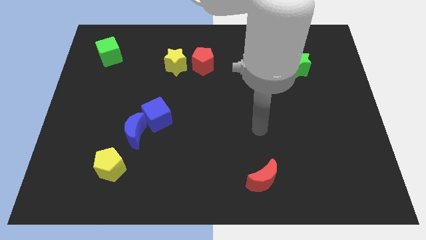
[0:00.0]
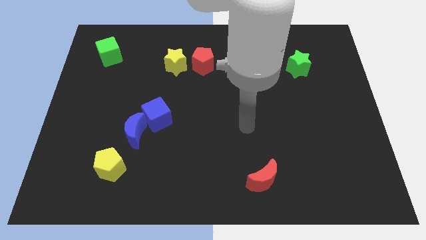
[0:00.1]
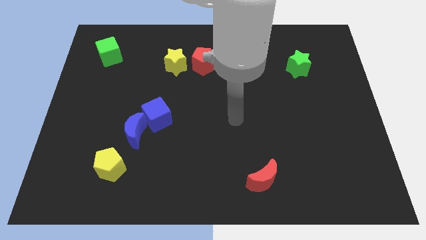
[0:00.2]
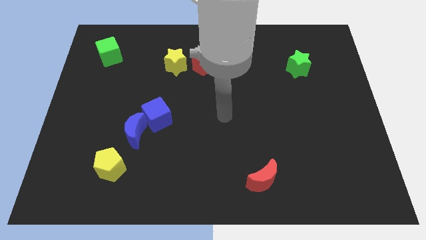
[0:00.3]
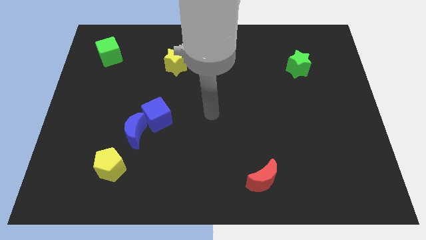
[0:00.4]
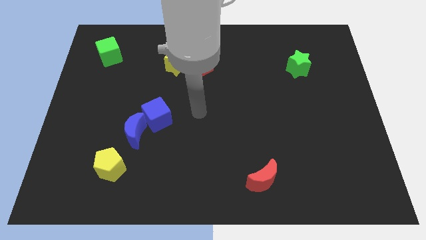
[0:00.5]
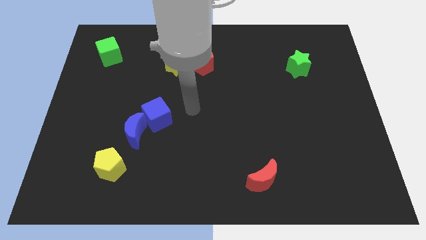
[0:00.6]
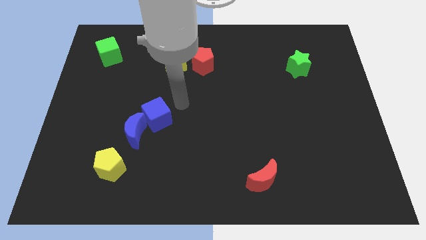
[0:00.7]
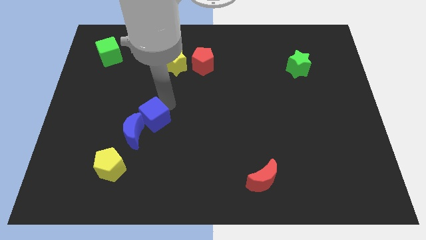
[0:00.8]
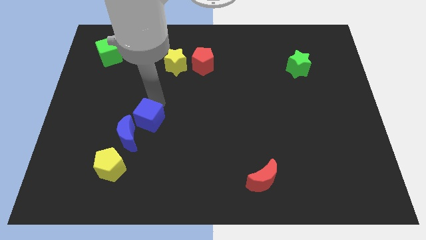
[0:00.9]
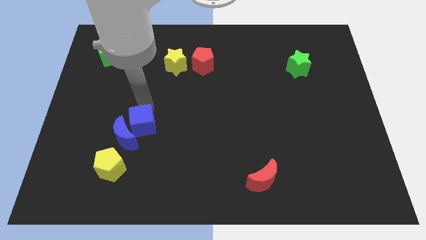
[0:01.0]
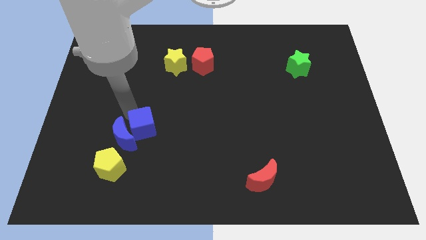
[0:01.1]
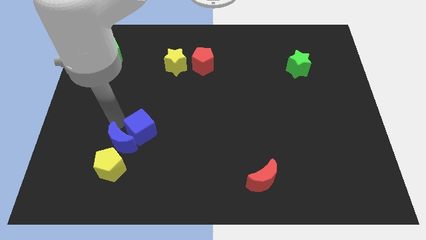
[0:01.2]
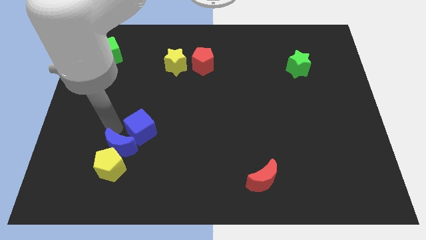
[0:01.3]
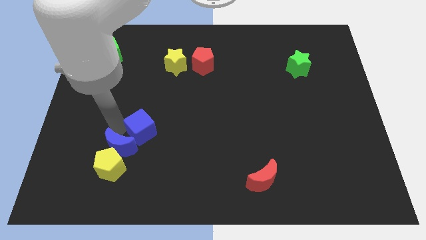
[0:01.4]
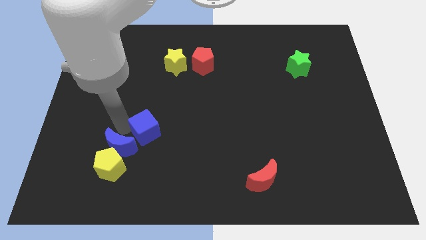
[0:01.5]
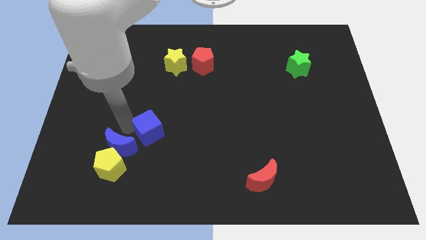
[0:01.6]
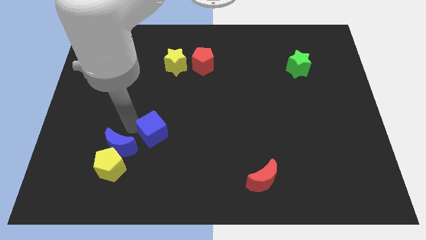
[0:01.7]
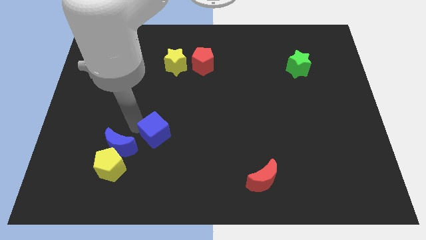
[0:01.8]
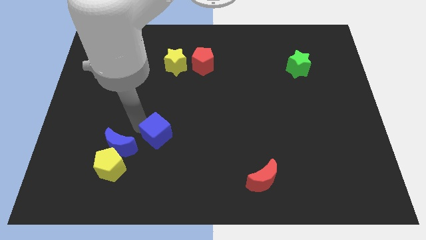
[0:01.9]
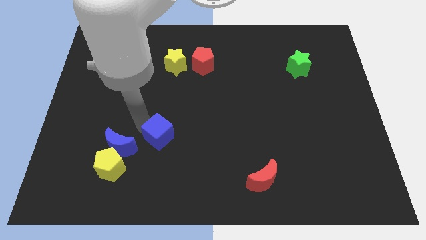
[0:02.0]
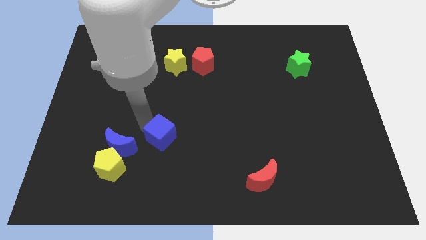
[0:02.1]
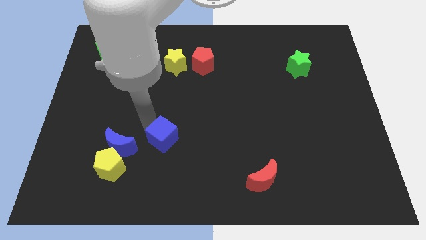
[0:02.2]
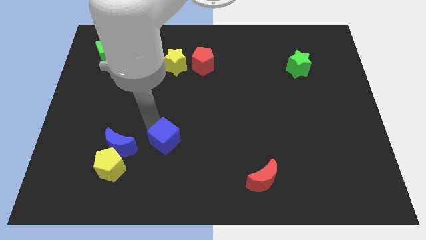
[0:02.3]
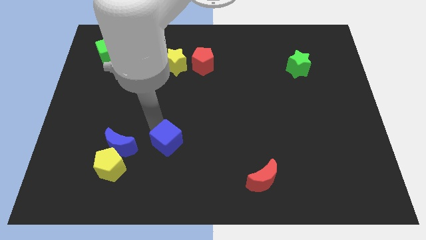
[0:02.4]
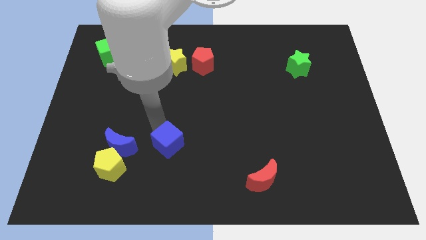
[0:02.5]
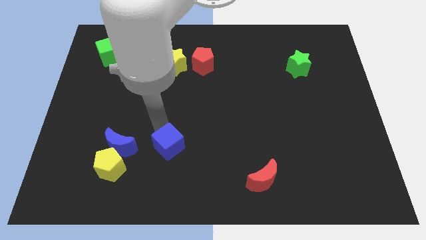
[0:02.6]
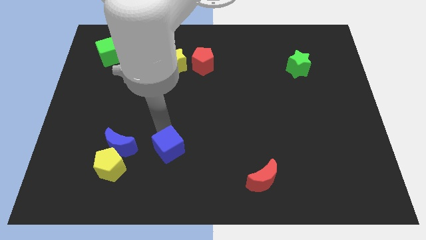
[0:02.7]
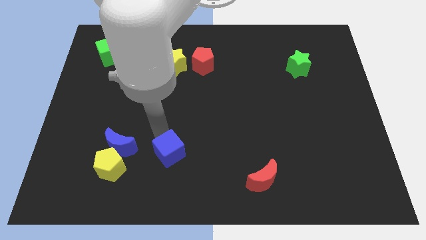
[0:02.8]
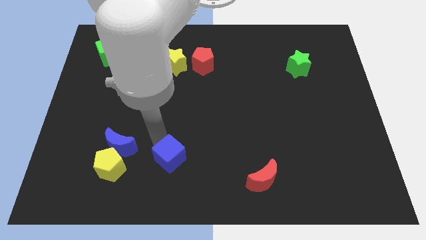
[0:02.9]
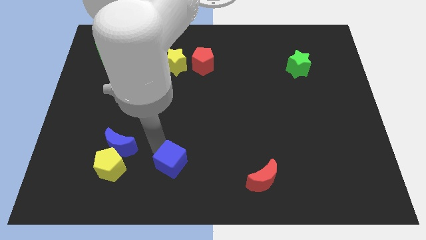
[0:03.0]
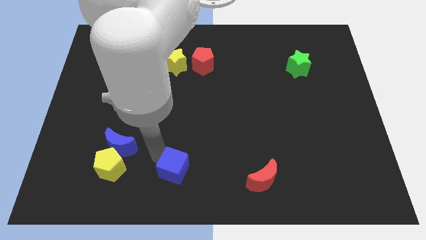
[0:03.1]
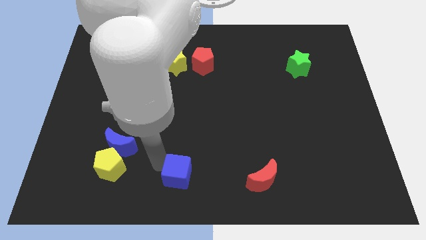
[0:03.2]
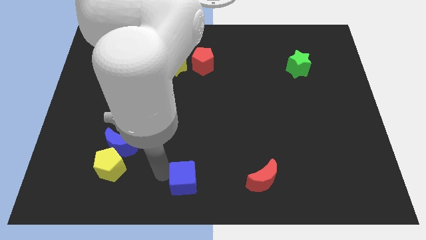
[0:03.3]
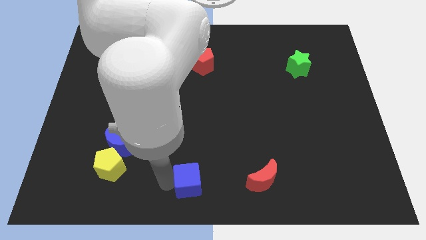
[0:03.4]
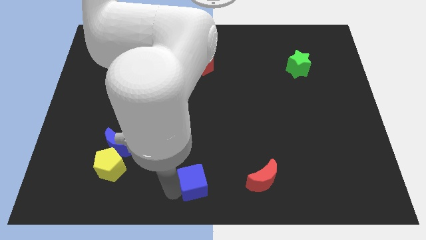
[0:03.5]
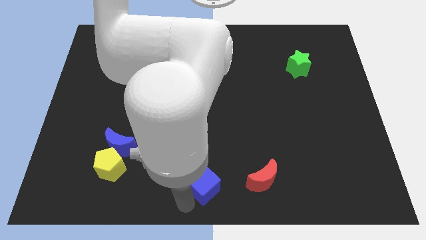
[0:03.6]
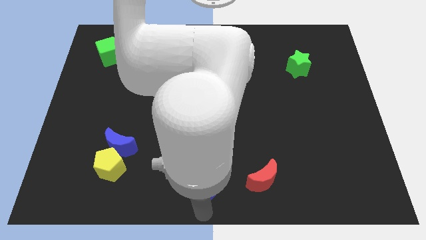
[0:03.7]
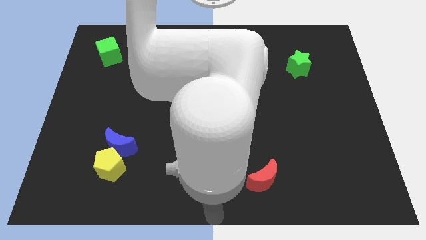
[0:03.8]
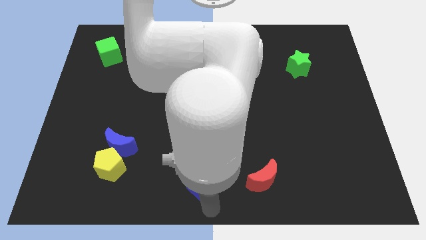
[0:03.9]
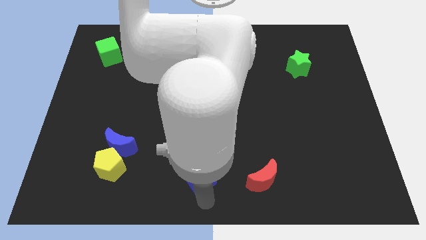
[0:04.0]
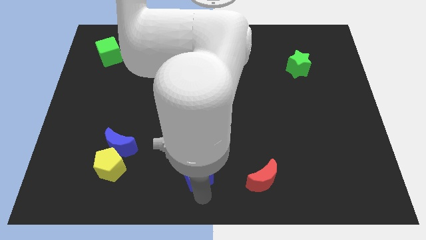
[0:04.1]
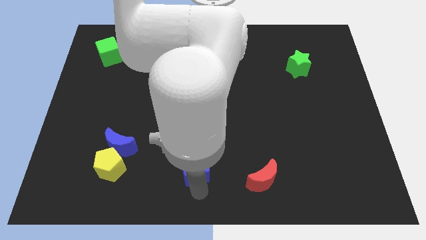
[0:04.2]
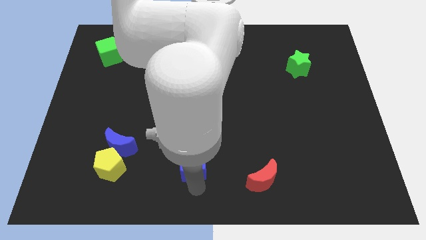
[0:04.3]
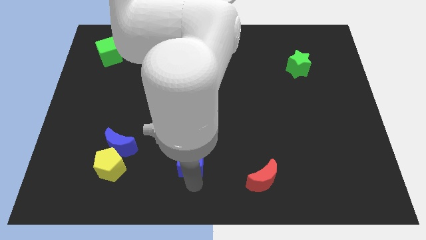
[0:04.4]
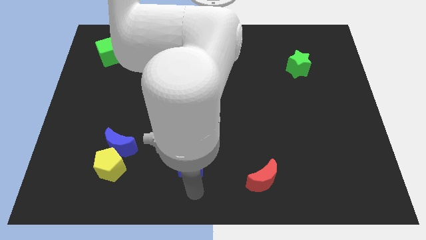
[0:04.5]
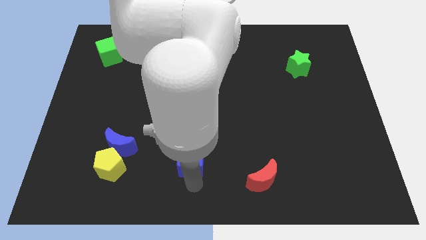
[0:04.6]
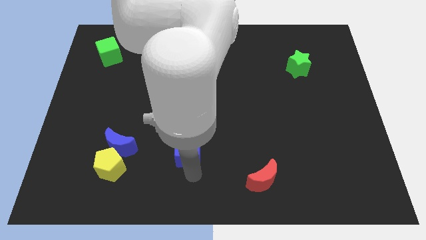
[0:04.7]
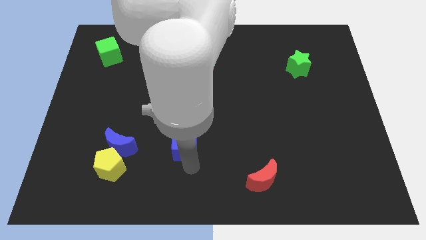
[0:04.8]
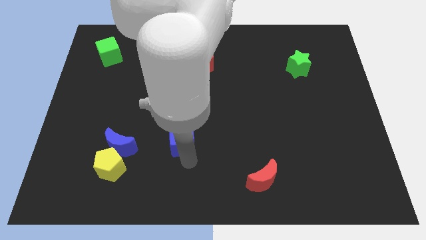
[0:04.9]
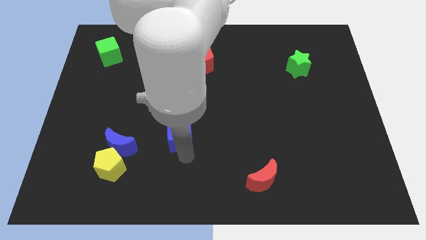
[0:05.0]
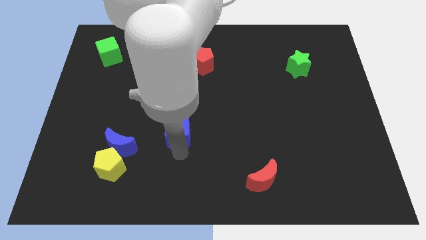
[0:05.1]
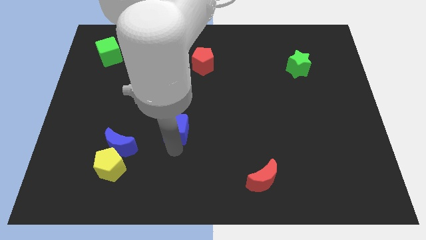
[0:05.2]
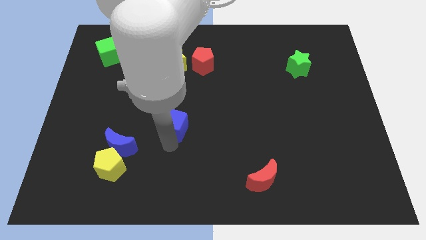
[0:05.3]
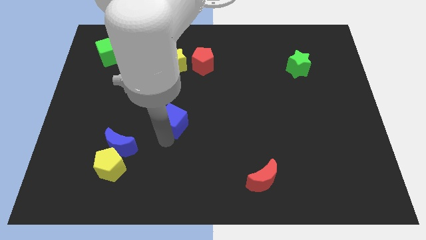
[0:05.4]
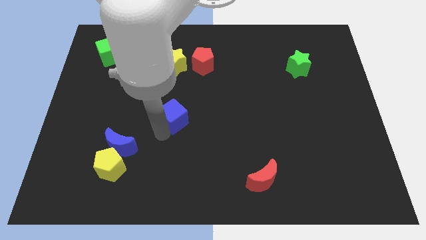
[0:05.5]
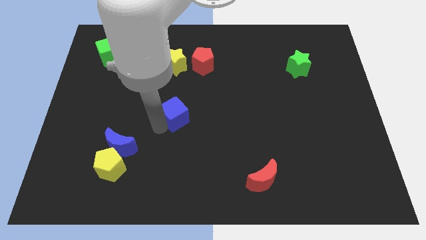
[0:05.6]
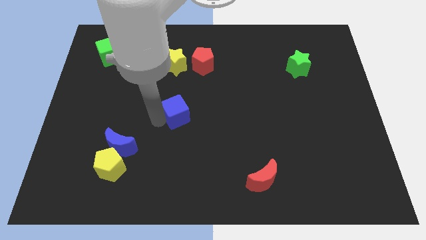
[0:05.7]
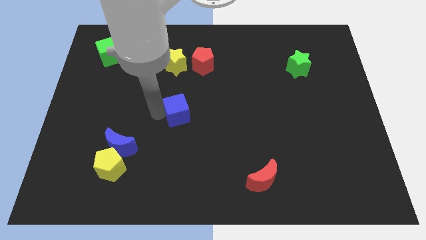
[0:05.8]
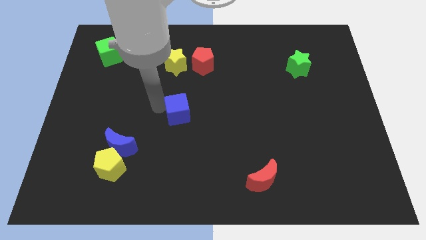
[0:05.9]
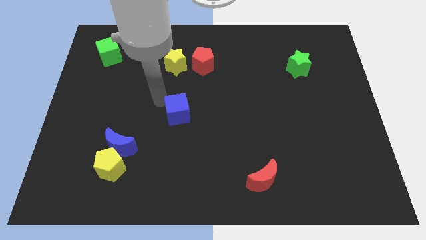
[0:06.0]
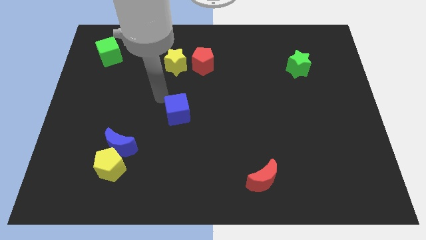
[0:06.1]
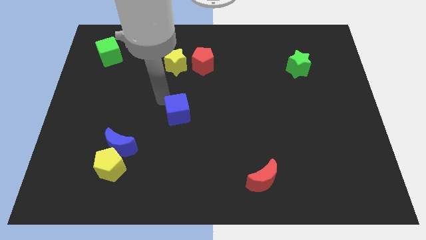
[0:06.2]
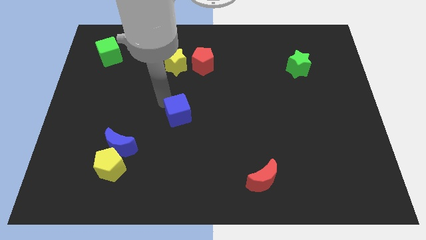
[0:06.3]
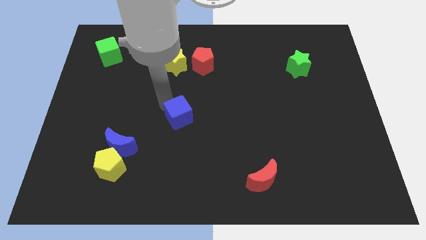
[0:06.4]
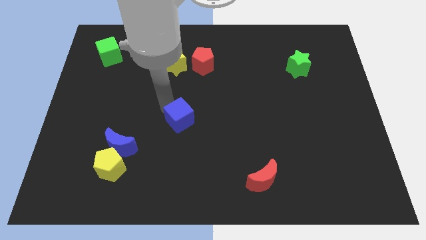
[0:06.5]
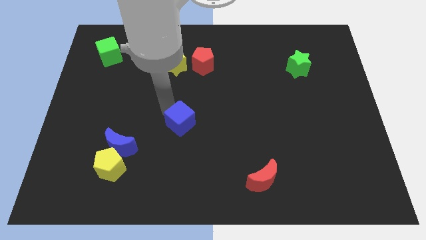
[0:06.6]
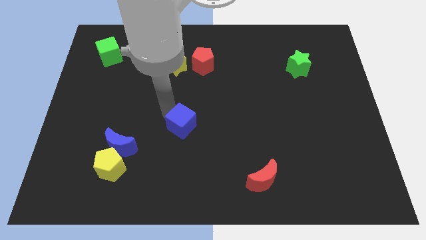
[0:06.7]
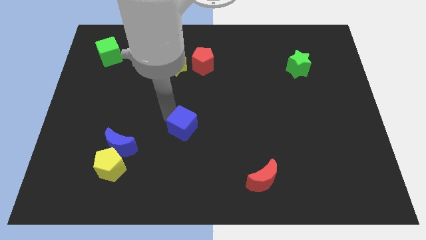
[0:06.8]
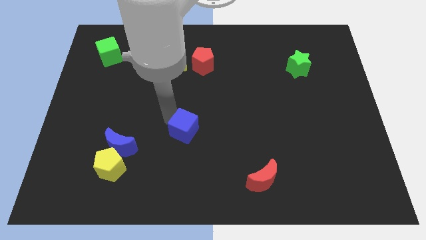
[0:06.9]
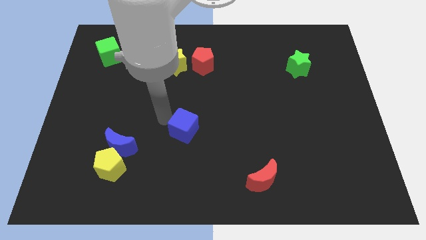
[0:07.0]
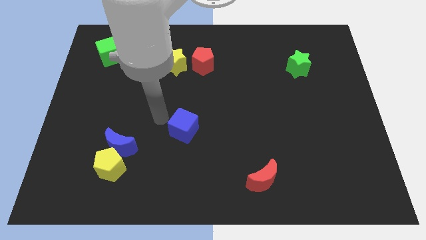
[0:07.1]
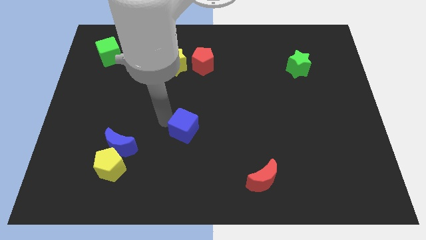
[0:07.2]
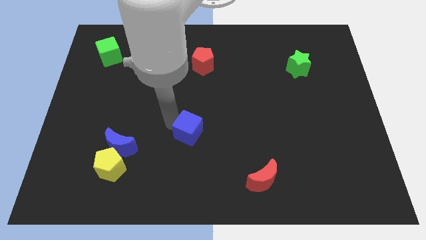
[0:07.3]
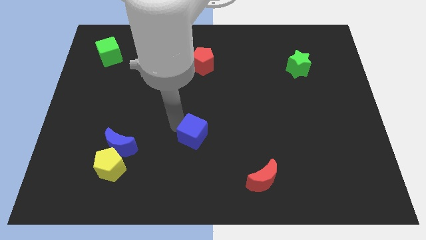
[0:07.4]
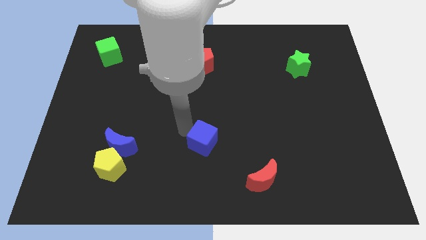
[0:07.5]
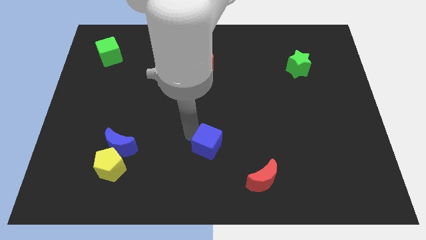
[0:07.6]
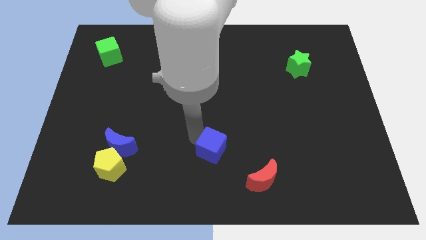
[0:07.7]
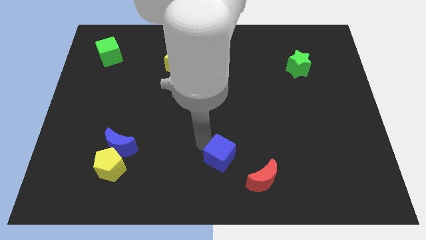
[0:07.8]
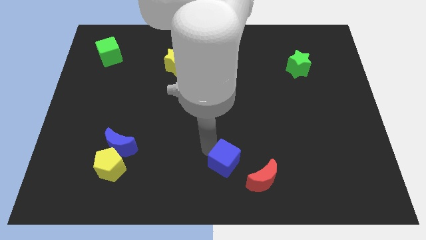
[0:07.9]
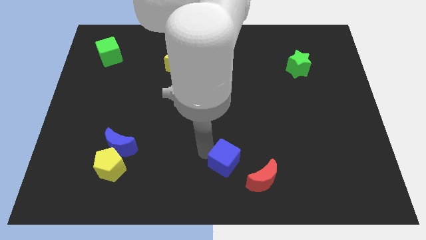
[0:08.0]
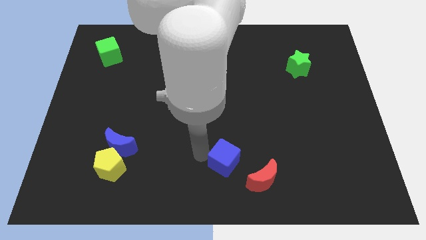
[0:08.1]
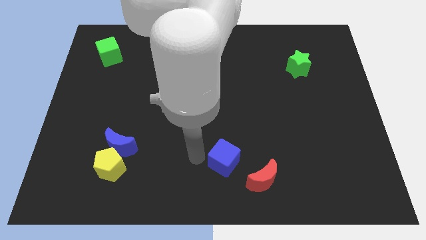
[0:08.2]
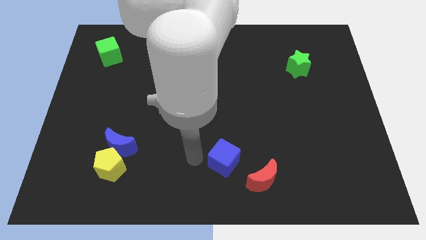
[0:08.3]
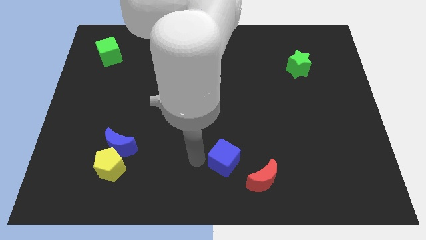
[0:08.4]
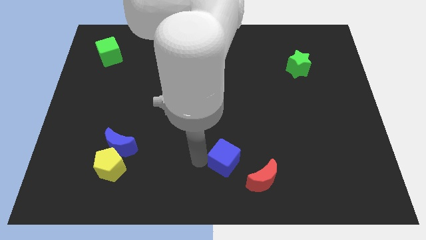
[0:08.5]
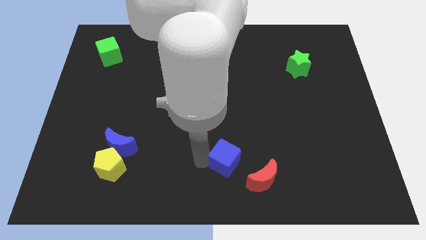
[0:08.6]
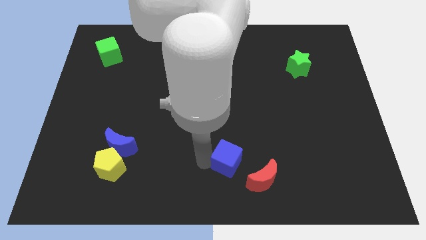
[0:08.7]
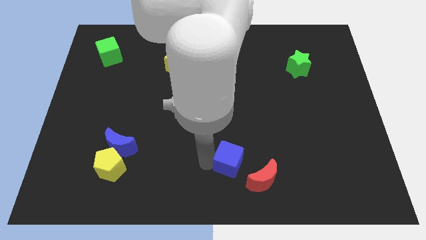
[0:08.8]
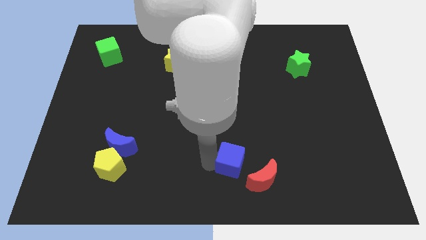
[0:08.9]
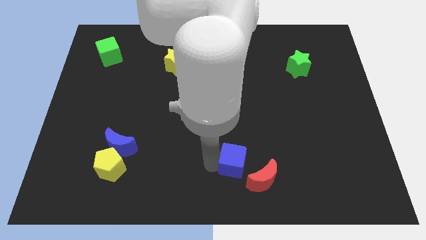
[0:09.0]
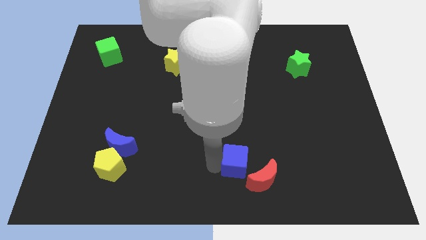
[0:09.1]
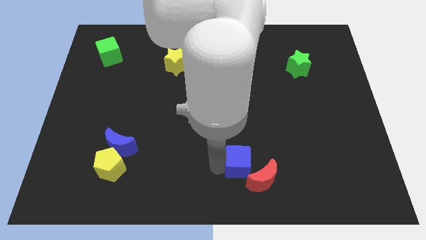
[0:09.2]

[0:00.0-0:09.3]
move the blue cube to the red moon
